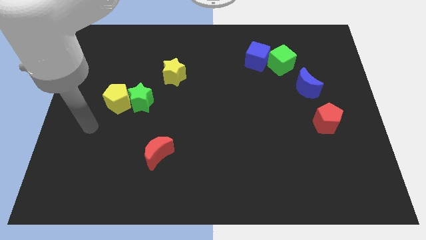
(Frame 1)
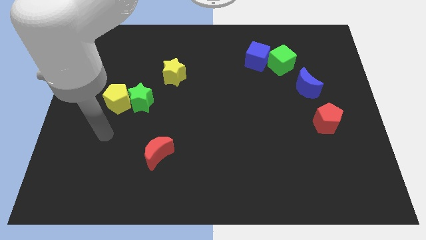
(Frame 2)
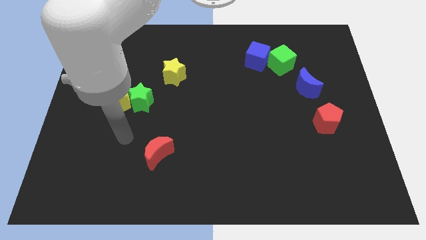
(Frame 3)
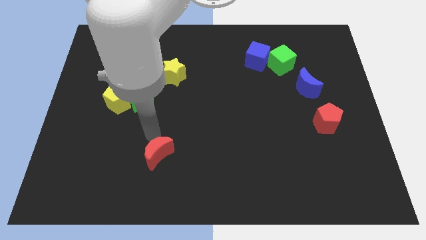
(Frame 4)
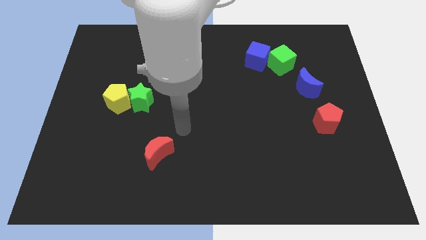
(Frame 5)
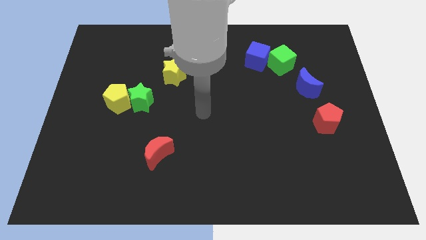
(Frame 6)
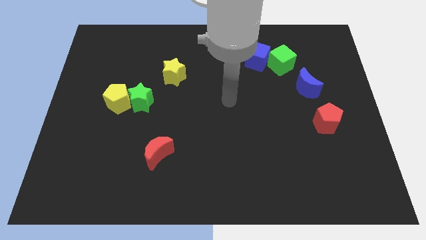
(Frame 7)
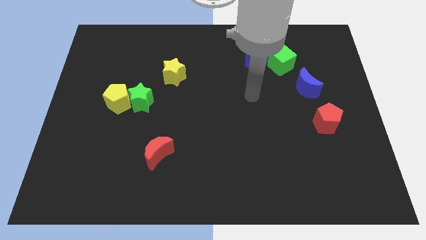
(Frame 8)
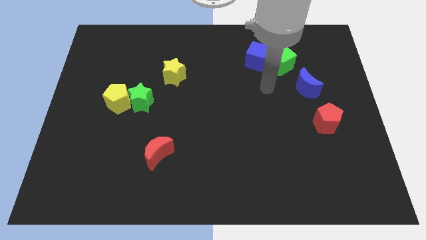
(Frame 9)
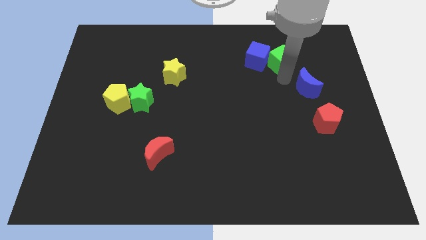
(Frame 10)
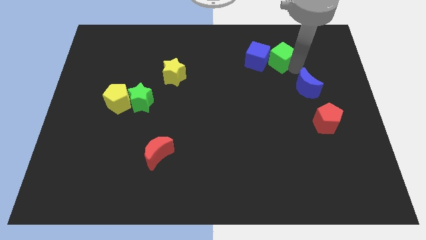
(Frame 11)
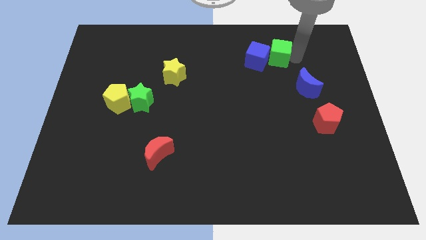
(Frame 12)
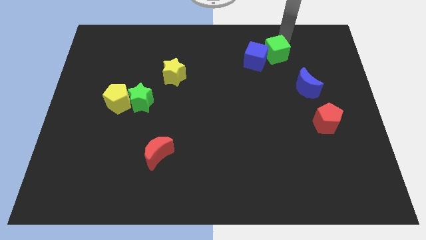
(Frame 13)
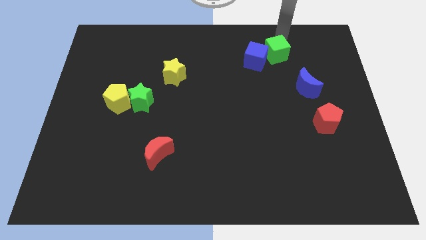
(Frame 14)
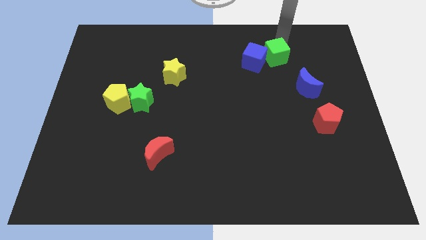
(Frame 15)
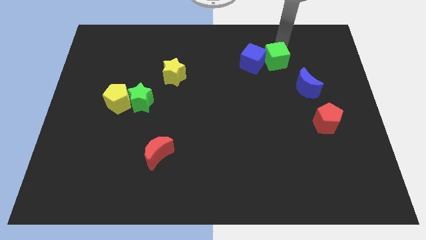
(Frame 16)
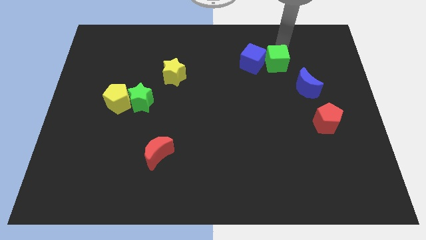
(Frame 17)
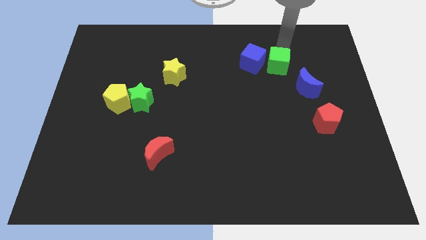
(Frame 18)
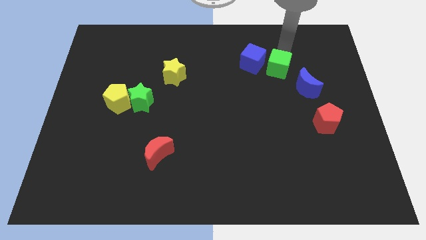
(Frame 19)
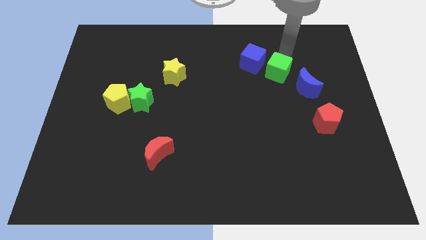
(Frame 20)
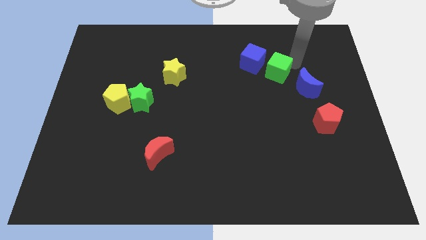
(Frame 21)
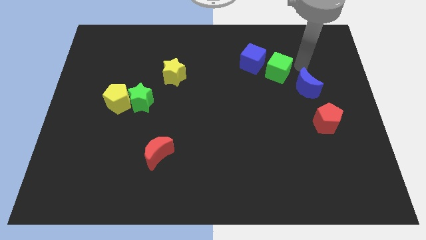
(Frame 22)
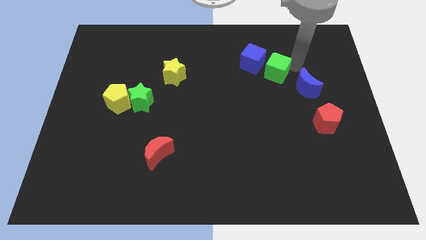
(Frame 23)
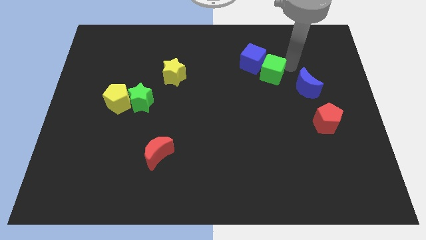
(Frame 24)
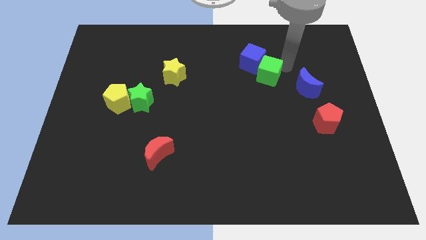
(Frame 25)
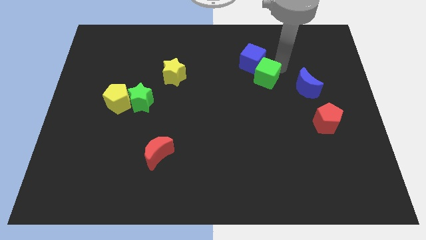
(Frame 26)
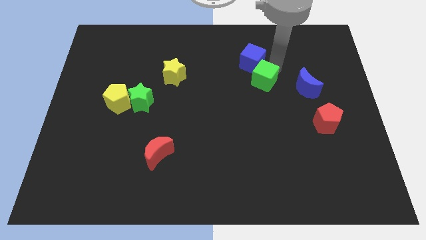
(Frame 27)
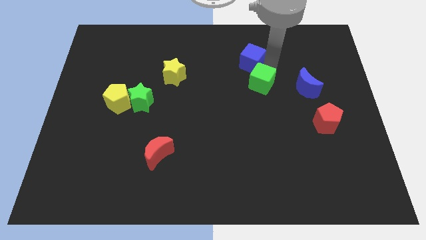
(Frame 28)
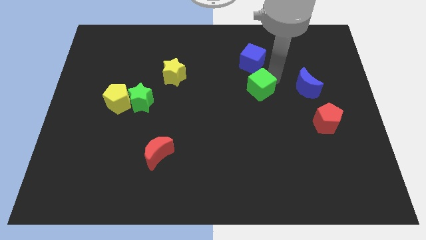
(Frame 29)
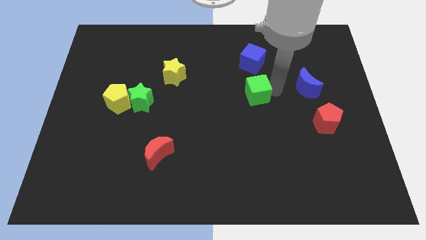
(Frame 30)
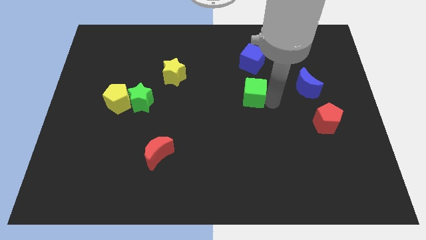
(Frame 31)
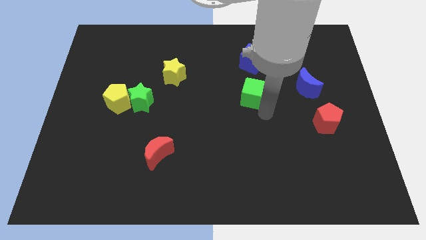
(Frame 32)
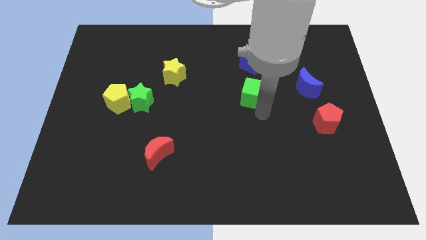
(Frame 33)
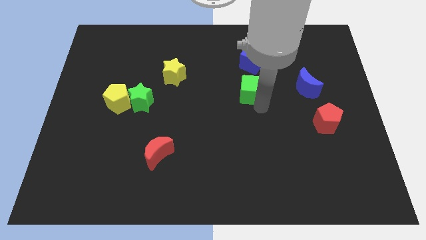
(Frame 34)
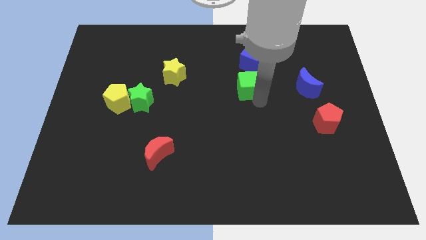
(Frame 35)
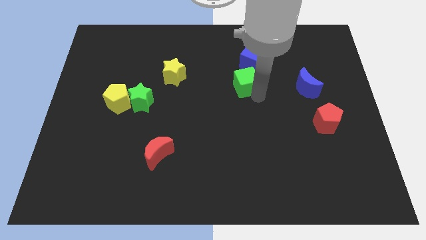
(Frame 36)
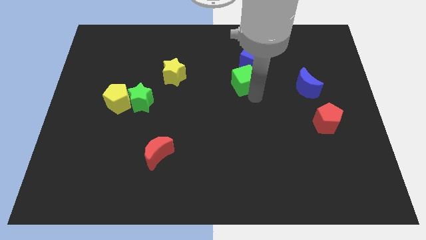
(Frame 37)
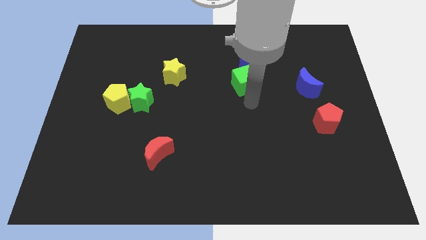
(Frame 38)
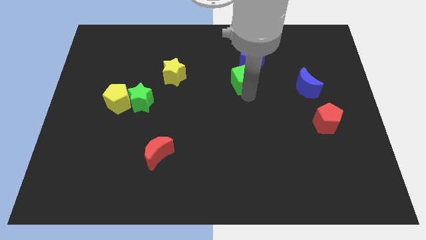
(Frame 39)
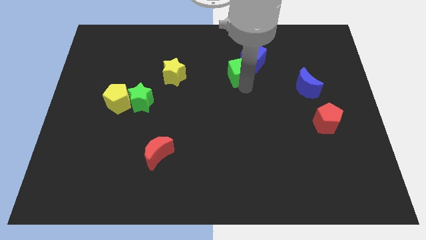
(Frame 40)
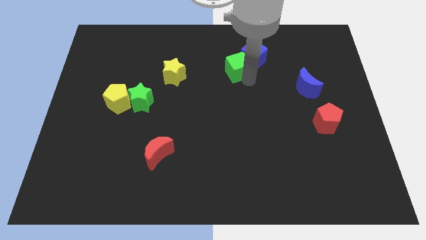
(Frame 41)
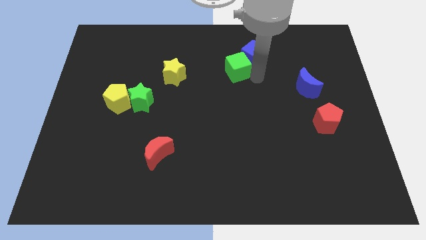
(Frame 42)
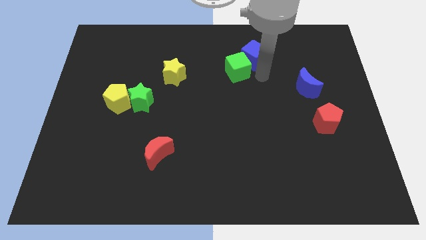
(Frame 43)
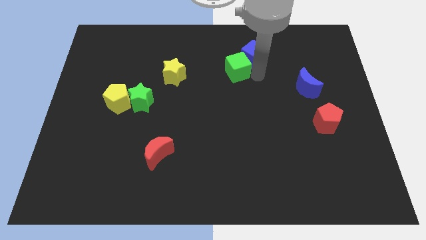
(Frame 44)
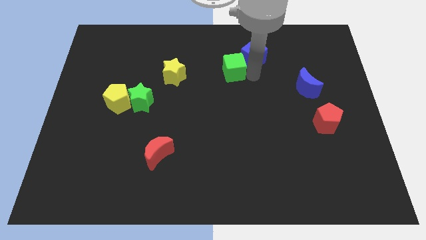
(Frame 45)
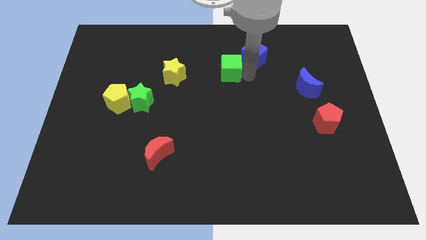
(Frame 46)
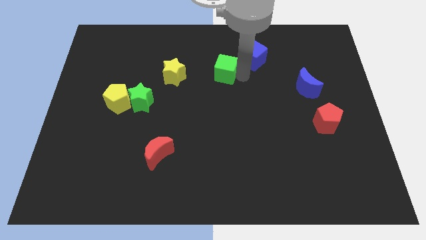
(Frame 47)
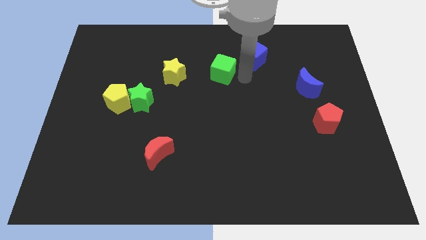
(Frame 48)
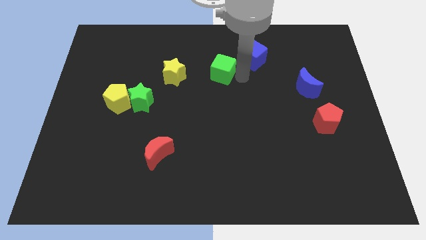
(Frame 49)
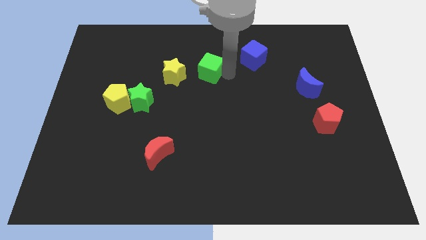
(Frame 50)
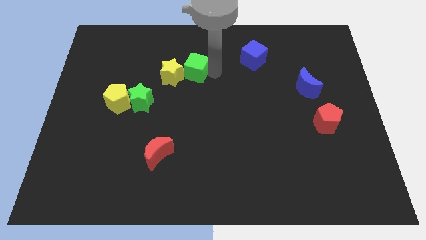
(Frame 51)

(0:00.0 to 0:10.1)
slide the green cube left

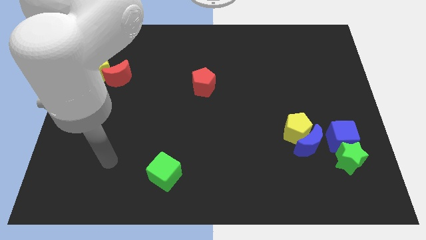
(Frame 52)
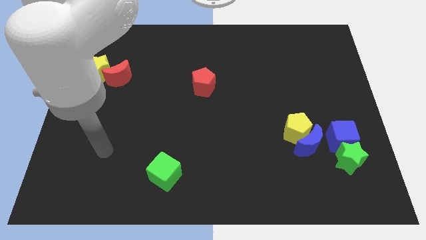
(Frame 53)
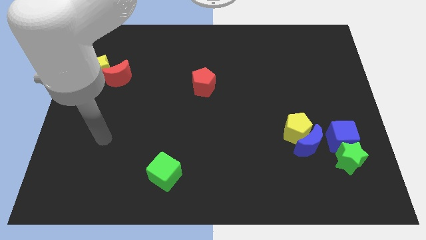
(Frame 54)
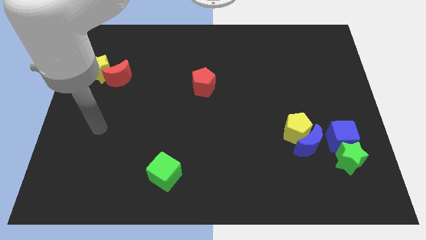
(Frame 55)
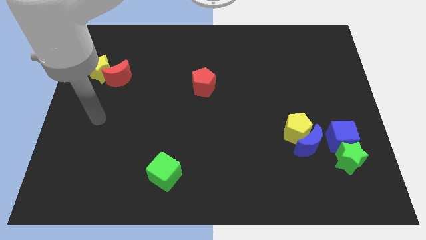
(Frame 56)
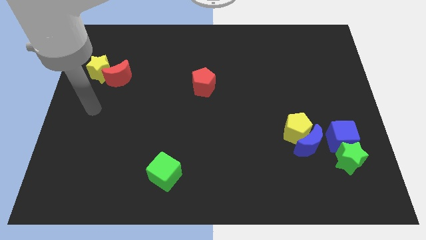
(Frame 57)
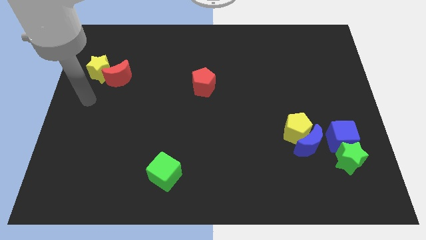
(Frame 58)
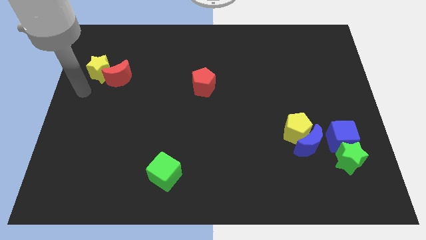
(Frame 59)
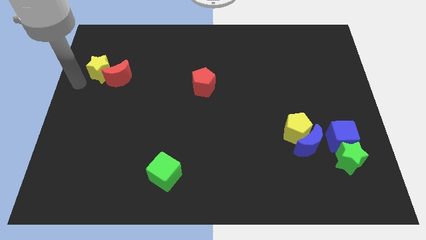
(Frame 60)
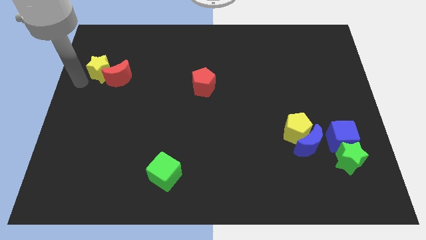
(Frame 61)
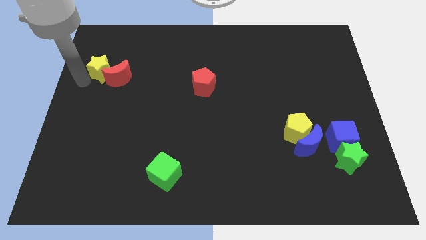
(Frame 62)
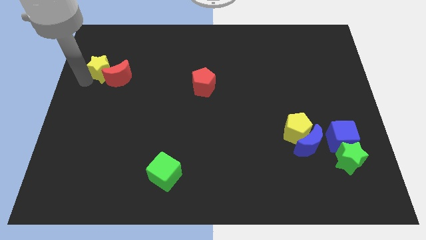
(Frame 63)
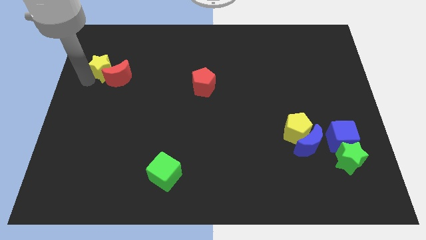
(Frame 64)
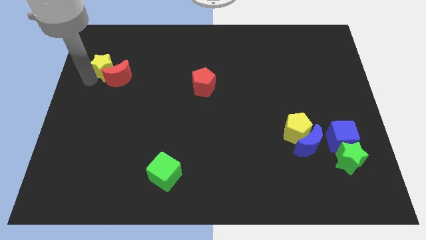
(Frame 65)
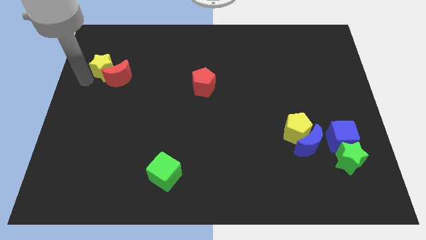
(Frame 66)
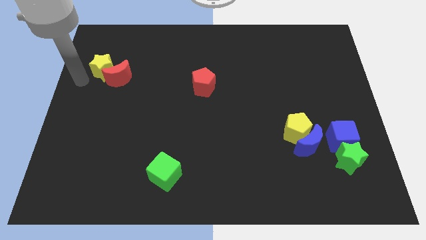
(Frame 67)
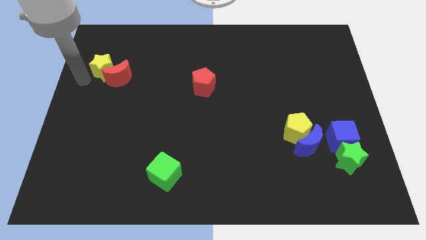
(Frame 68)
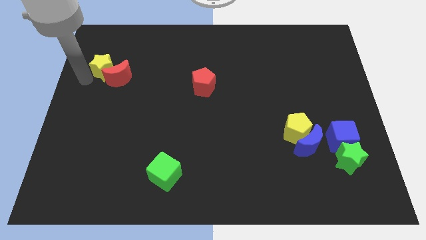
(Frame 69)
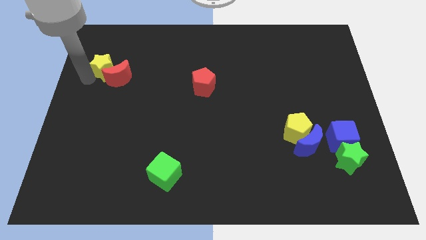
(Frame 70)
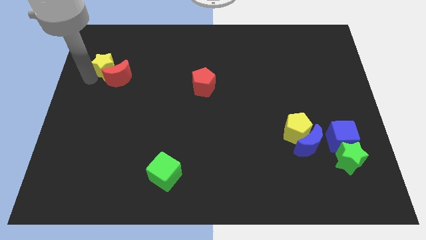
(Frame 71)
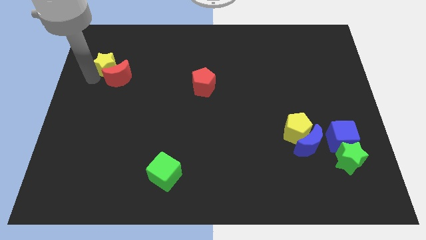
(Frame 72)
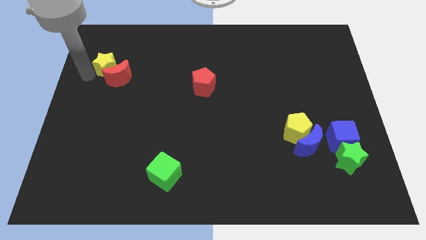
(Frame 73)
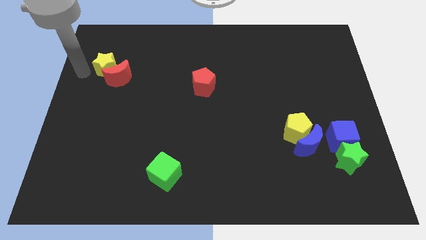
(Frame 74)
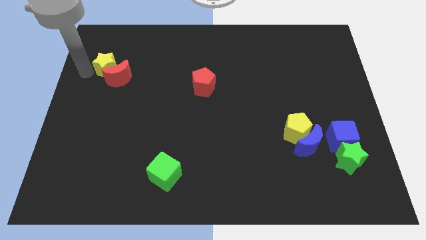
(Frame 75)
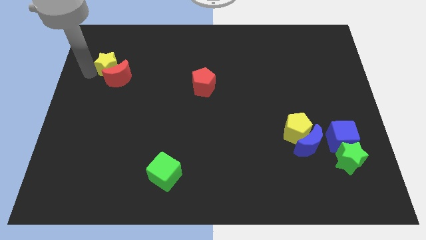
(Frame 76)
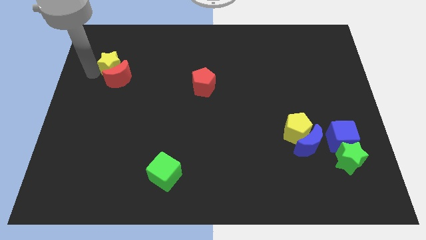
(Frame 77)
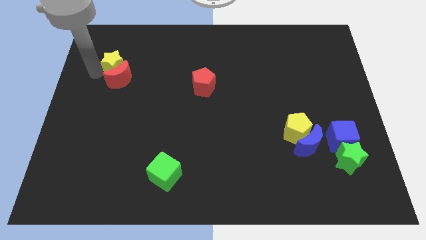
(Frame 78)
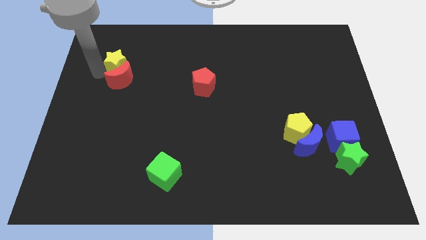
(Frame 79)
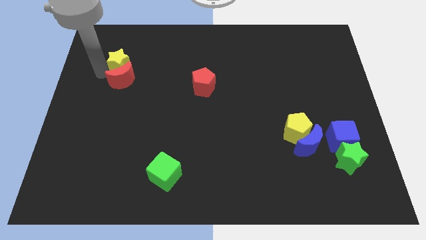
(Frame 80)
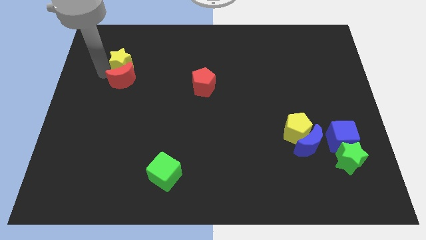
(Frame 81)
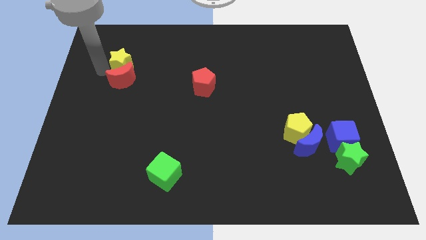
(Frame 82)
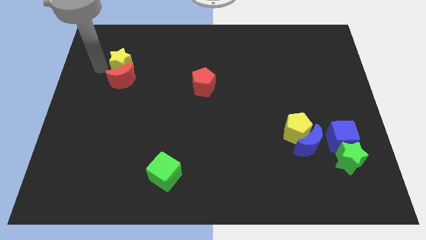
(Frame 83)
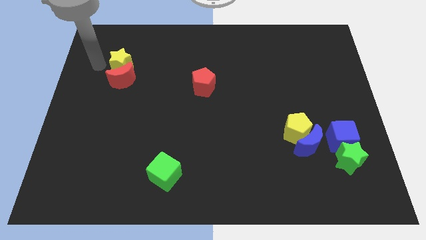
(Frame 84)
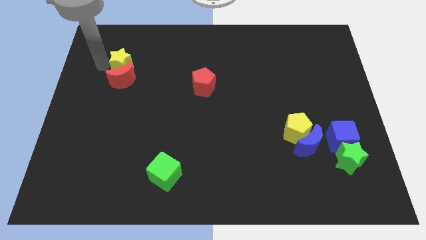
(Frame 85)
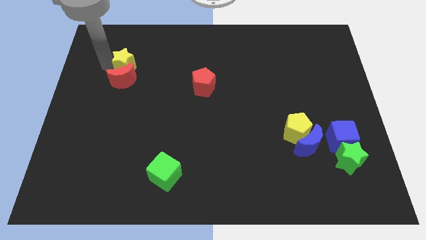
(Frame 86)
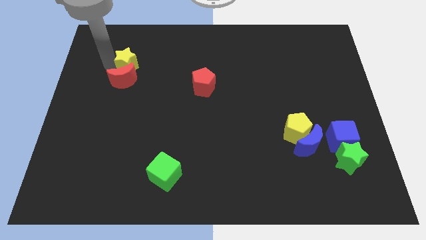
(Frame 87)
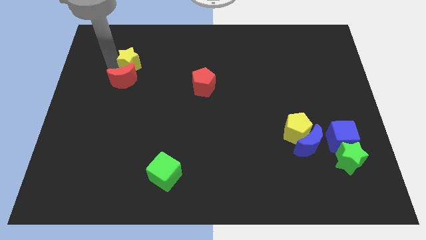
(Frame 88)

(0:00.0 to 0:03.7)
slightly slide the yellow star to the right
